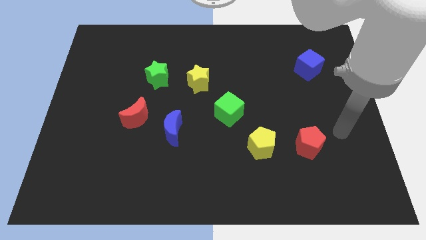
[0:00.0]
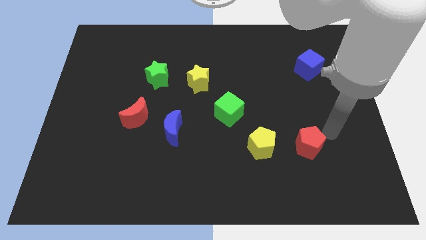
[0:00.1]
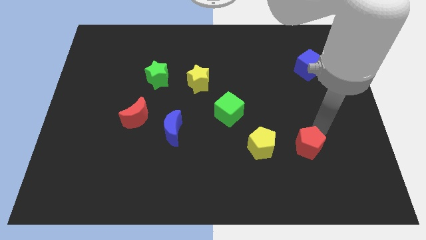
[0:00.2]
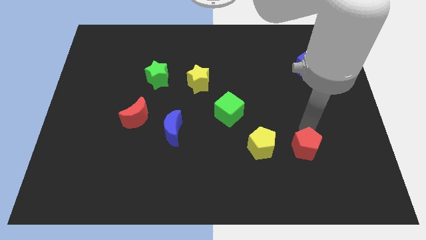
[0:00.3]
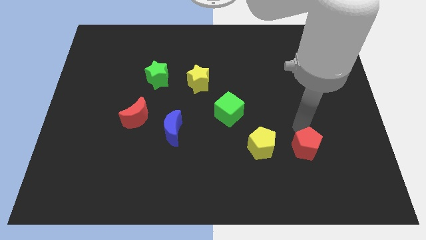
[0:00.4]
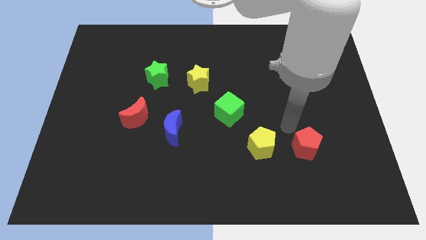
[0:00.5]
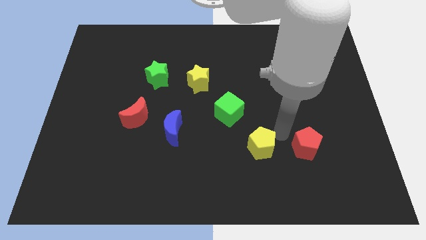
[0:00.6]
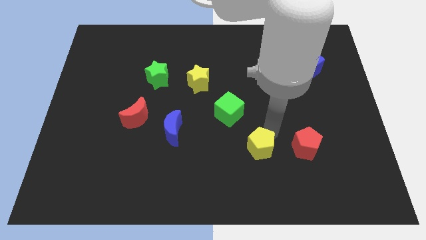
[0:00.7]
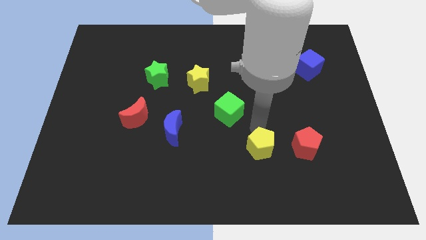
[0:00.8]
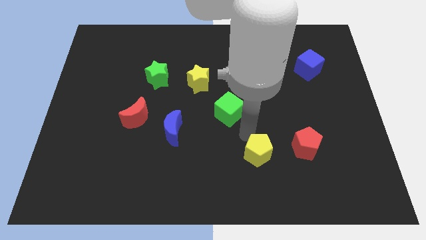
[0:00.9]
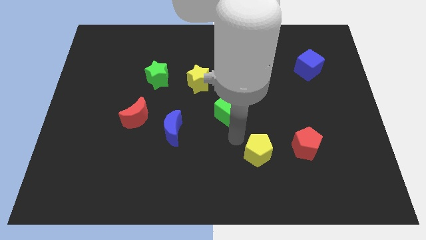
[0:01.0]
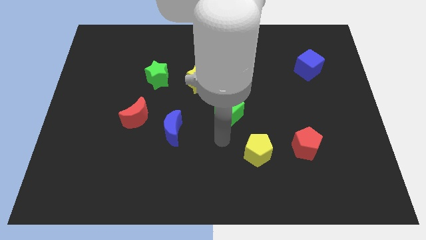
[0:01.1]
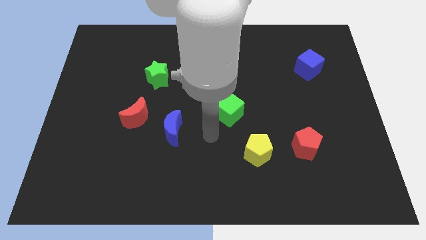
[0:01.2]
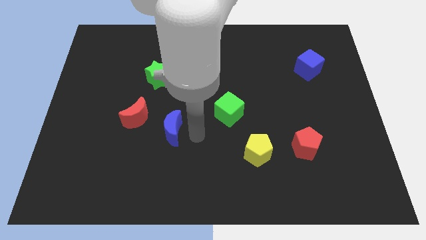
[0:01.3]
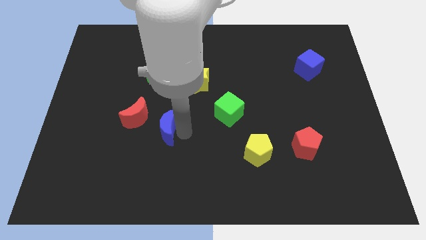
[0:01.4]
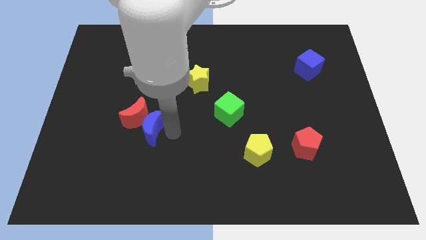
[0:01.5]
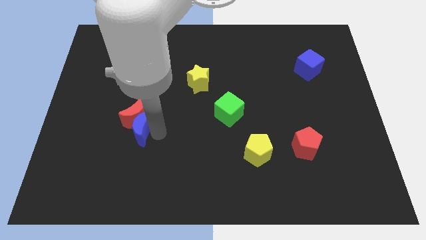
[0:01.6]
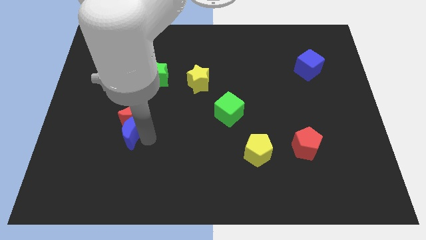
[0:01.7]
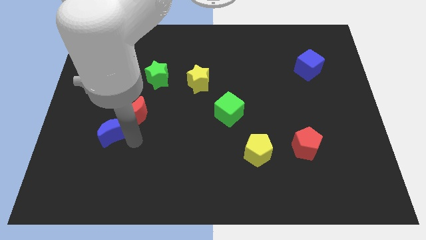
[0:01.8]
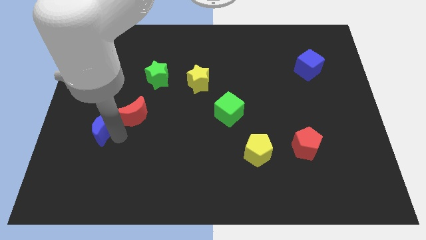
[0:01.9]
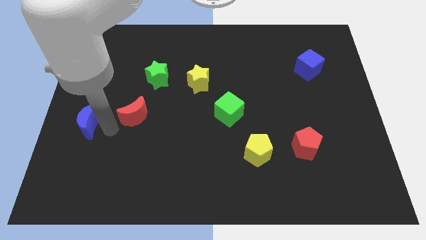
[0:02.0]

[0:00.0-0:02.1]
move the red moon away from the blue moon

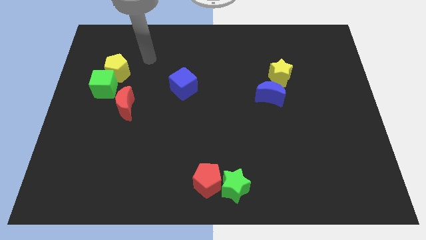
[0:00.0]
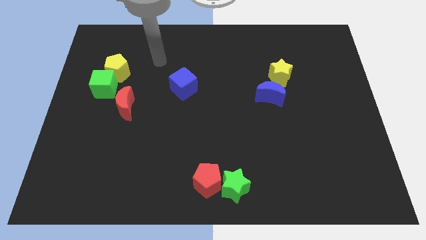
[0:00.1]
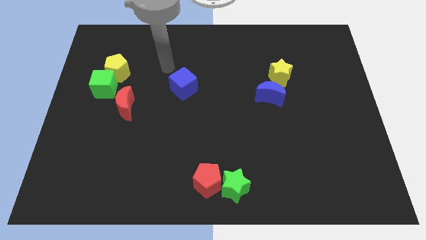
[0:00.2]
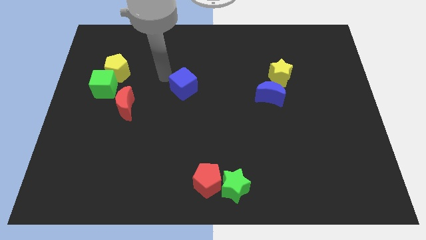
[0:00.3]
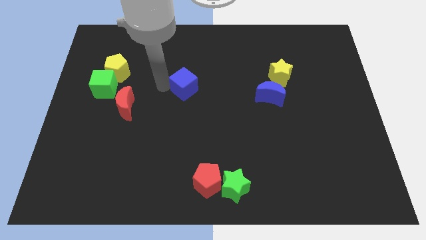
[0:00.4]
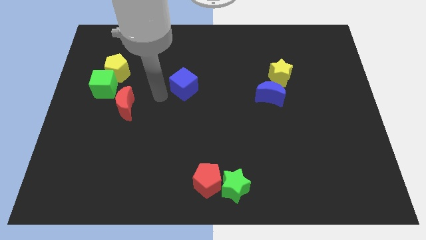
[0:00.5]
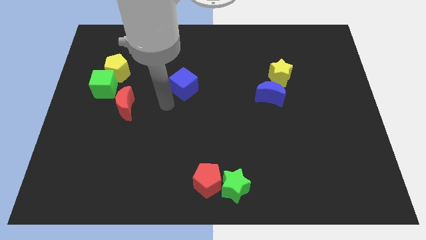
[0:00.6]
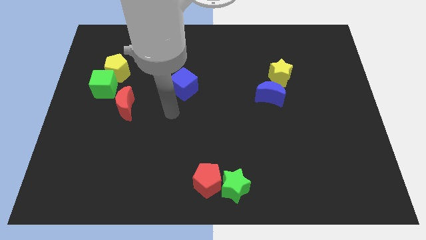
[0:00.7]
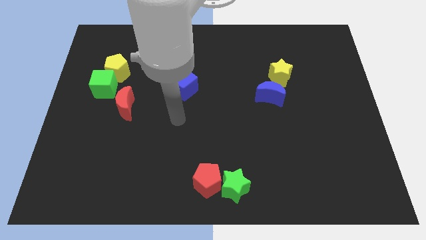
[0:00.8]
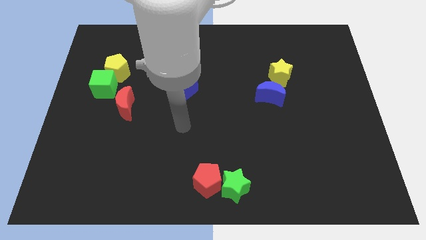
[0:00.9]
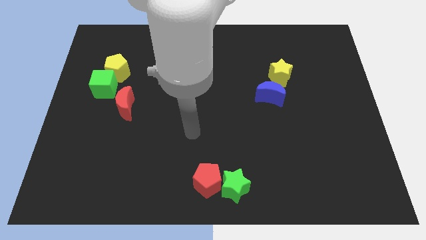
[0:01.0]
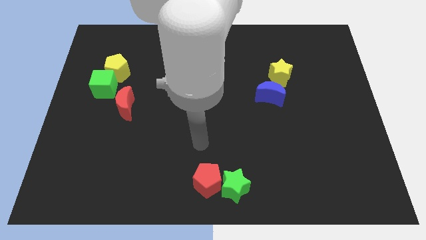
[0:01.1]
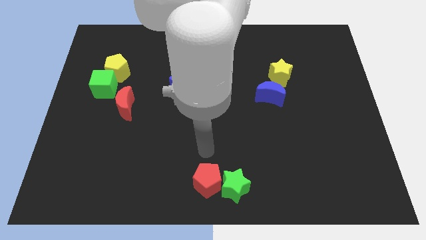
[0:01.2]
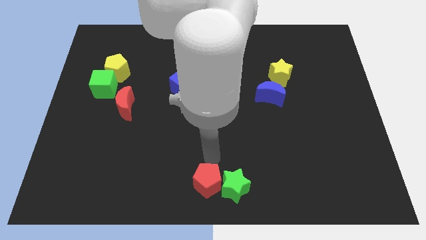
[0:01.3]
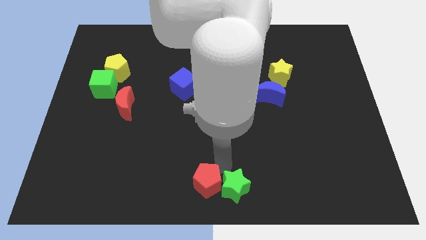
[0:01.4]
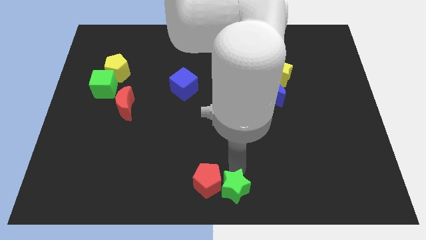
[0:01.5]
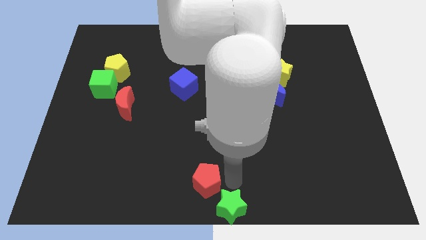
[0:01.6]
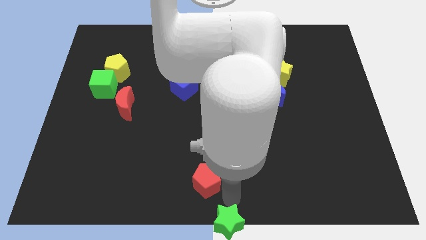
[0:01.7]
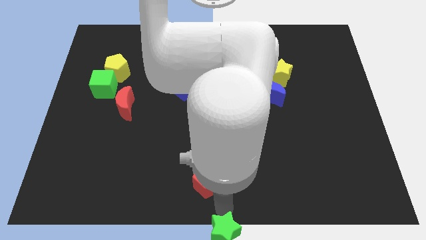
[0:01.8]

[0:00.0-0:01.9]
move the red pentagon away from the green star

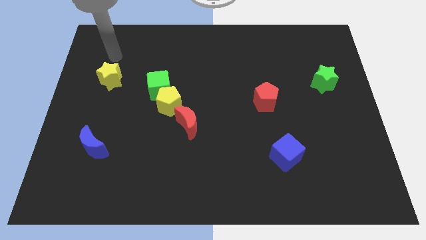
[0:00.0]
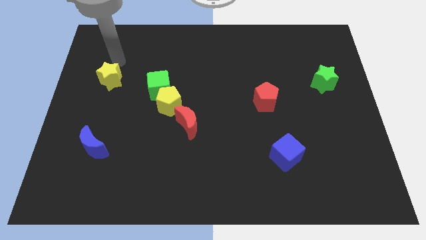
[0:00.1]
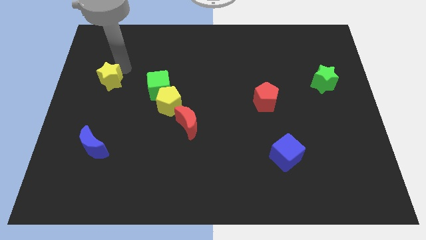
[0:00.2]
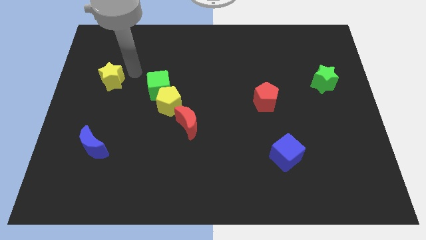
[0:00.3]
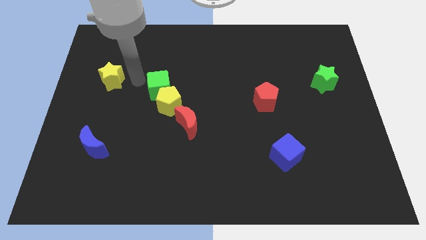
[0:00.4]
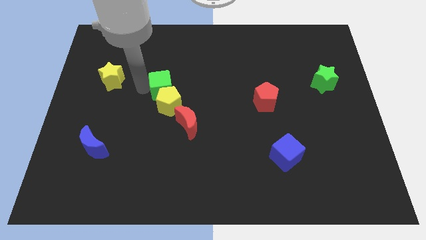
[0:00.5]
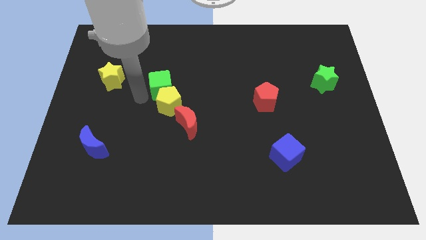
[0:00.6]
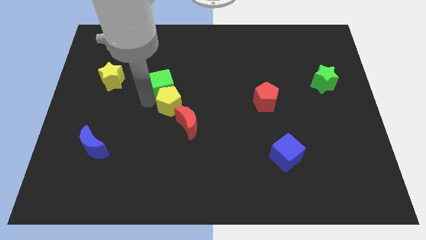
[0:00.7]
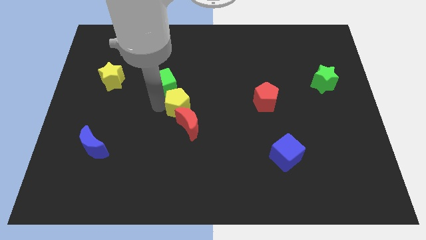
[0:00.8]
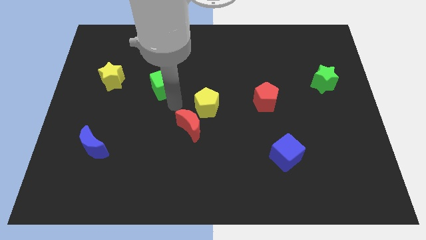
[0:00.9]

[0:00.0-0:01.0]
move the green cube away from the yellow pentagon

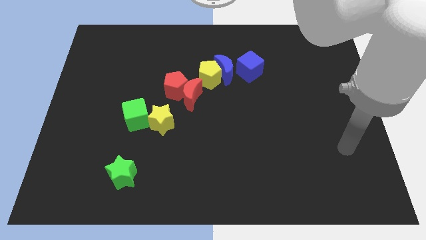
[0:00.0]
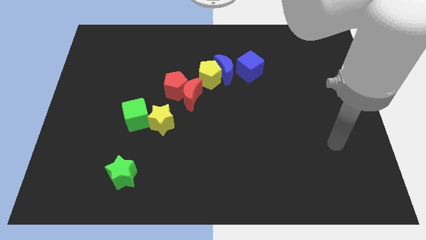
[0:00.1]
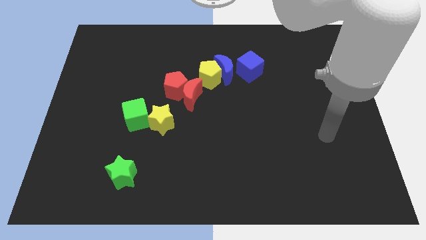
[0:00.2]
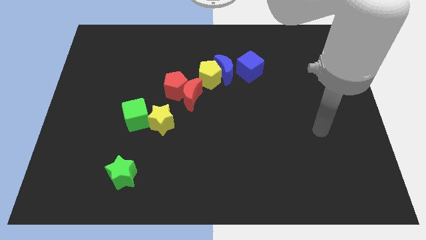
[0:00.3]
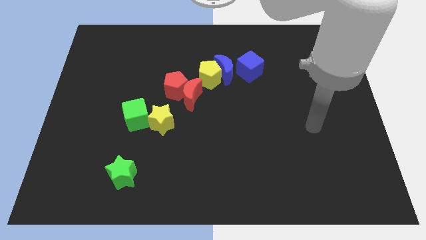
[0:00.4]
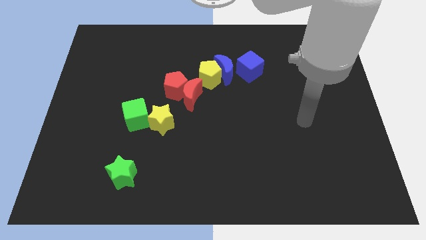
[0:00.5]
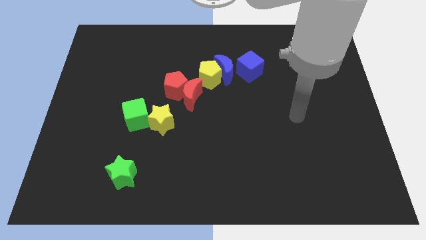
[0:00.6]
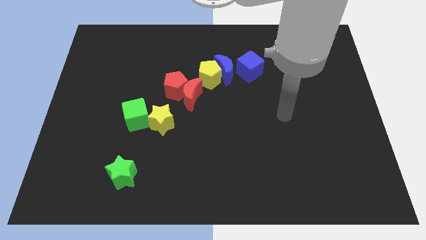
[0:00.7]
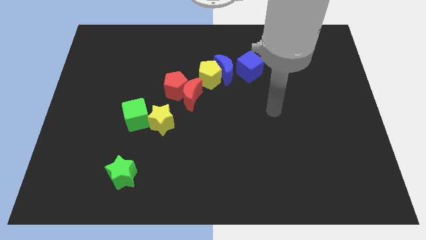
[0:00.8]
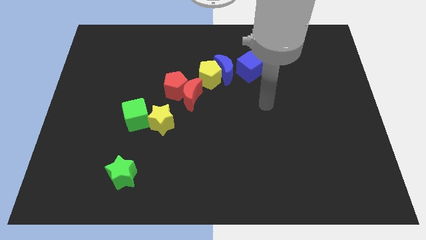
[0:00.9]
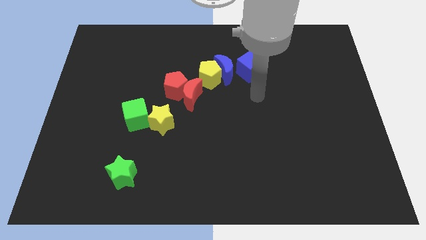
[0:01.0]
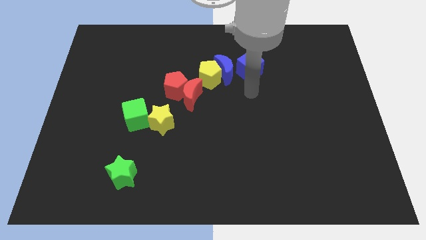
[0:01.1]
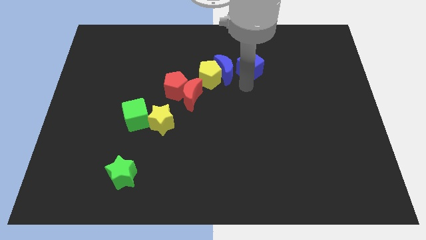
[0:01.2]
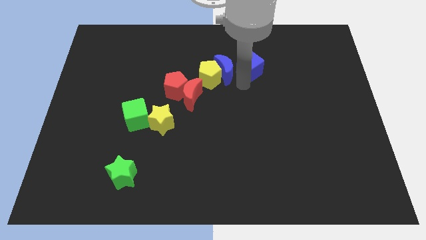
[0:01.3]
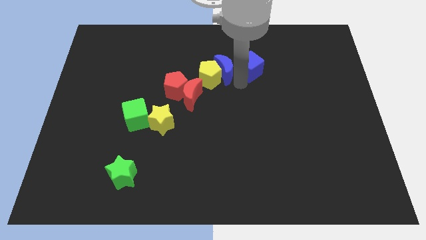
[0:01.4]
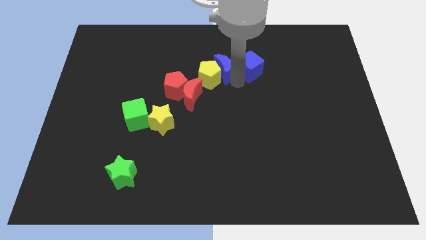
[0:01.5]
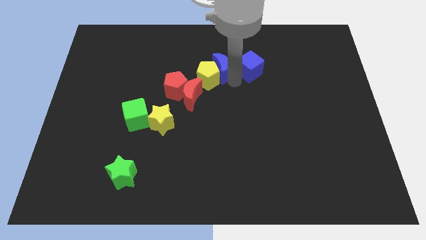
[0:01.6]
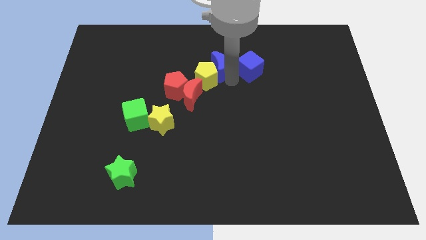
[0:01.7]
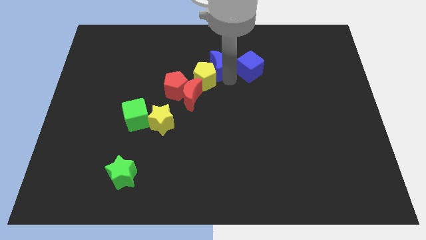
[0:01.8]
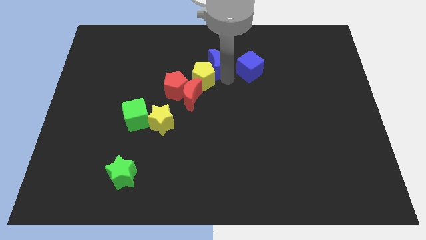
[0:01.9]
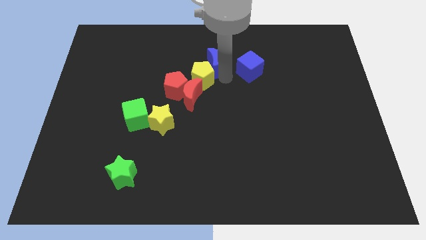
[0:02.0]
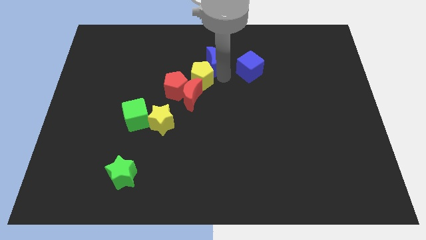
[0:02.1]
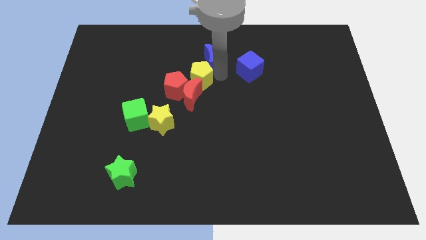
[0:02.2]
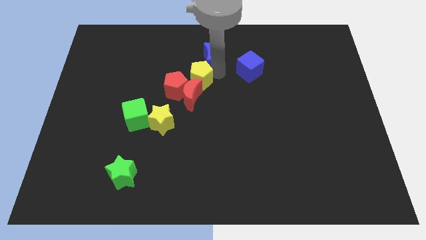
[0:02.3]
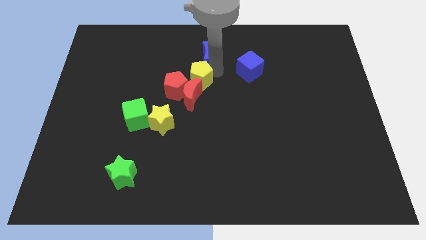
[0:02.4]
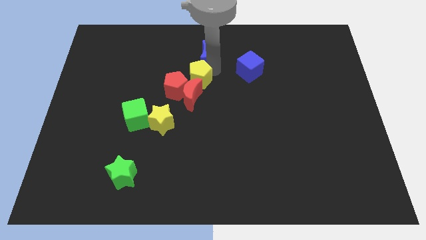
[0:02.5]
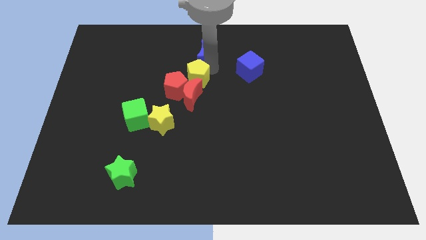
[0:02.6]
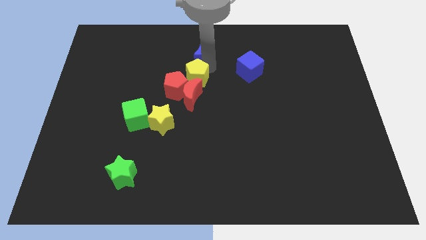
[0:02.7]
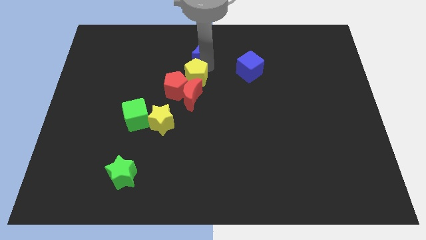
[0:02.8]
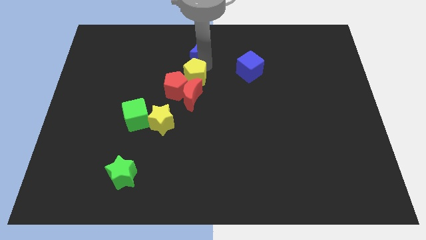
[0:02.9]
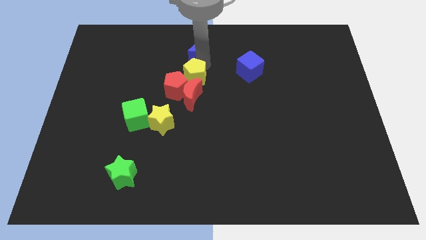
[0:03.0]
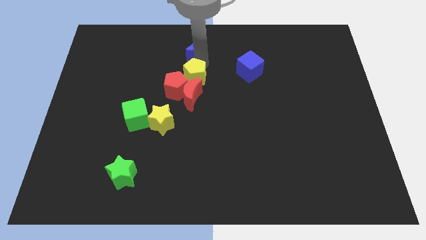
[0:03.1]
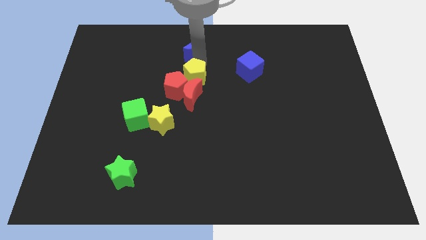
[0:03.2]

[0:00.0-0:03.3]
pull the blue moon apart from the yellow pentagon and blue cube

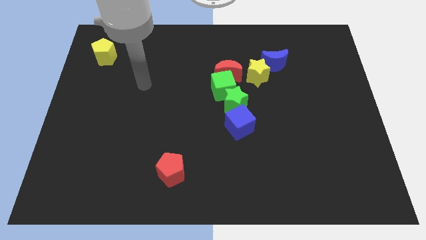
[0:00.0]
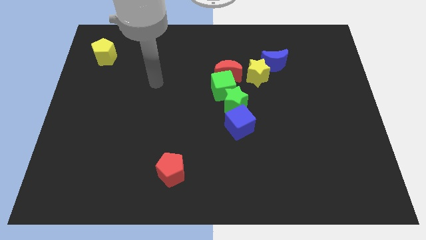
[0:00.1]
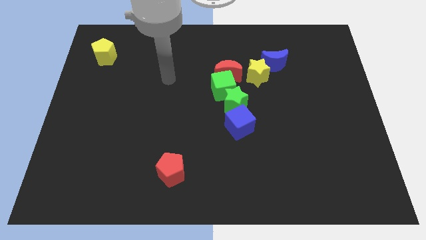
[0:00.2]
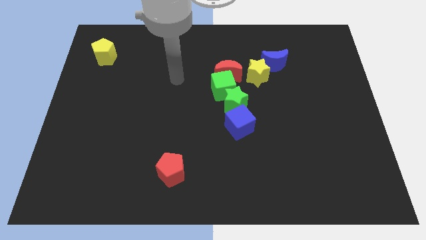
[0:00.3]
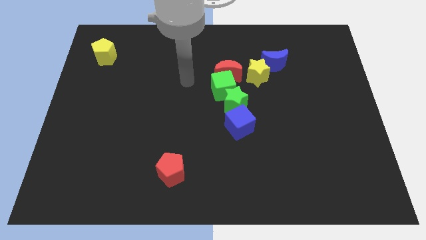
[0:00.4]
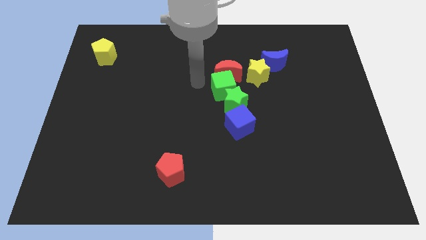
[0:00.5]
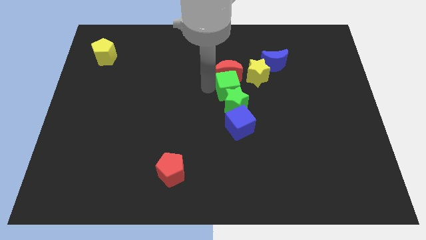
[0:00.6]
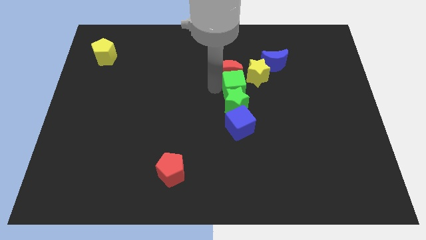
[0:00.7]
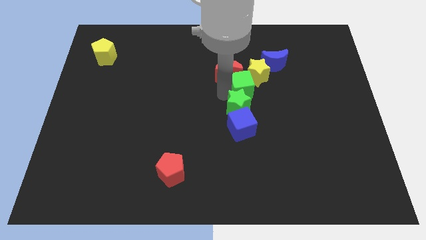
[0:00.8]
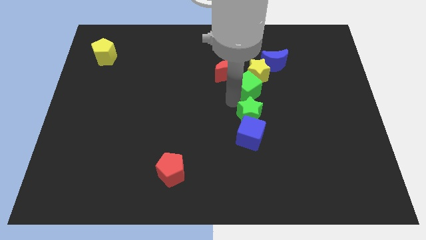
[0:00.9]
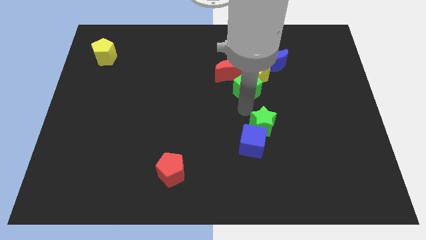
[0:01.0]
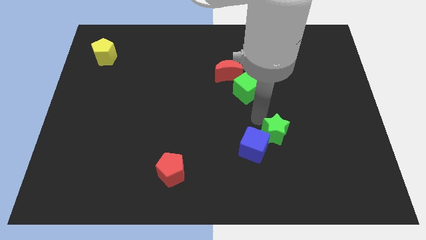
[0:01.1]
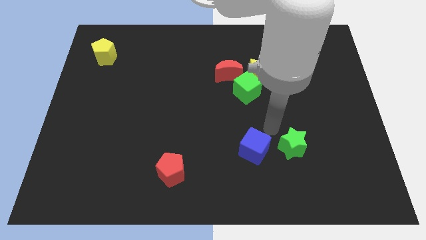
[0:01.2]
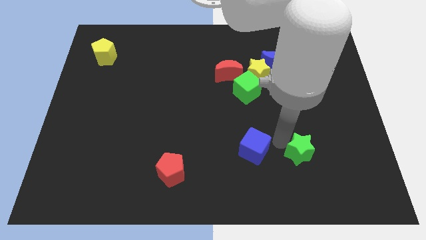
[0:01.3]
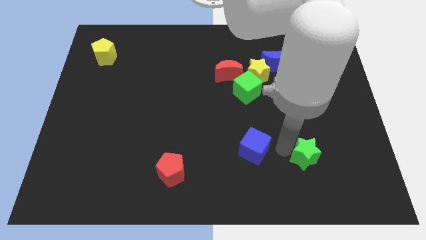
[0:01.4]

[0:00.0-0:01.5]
move the blue cube away from the green star
